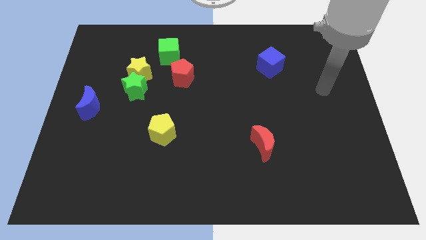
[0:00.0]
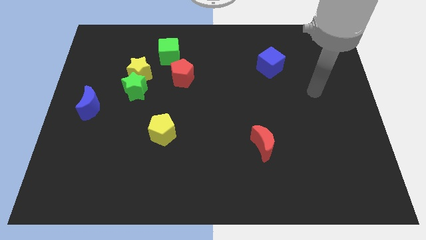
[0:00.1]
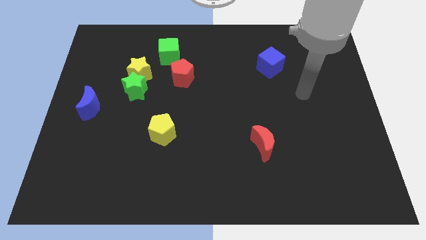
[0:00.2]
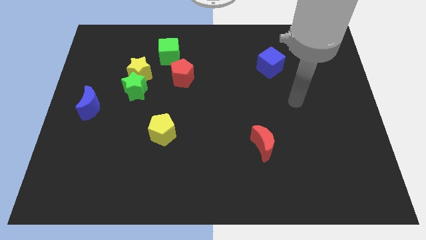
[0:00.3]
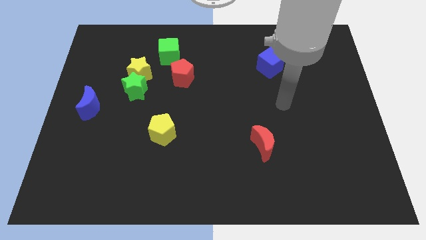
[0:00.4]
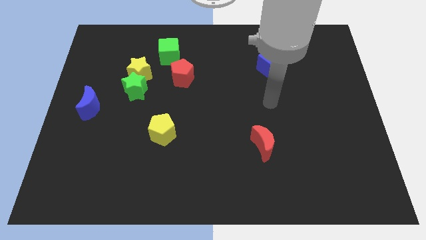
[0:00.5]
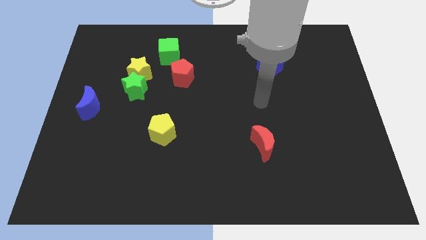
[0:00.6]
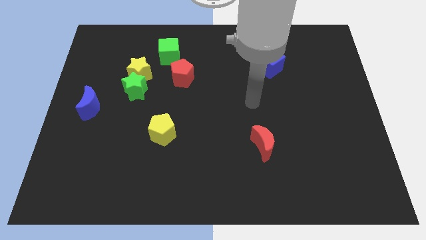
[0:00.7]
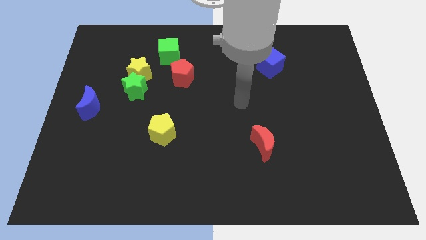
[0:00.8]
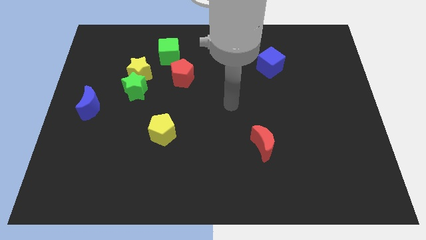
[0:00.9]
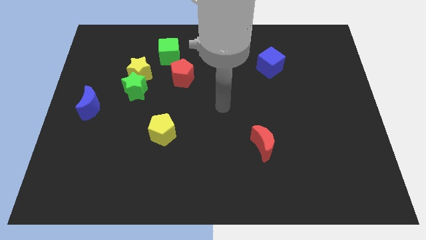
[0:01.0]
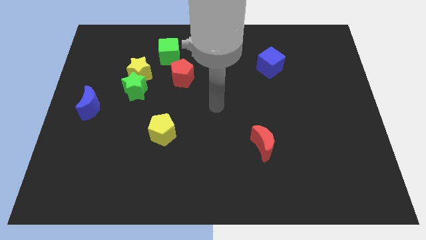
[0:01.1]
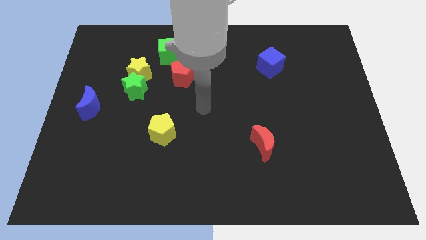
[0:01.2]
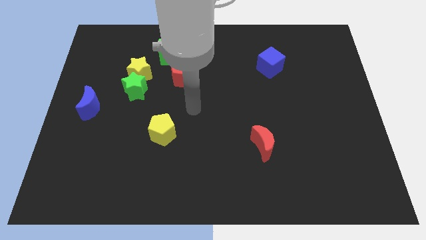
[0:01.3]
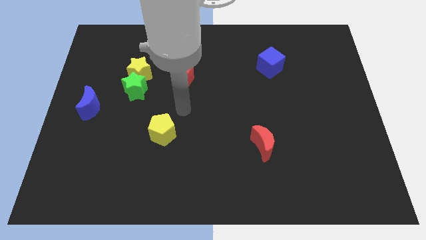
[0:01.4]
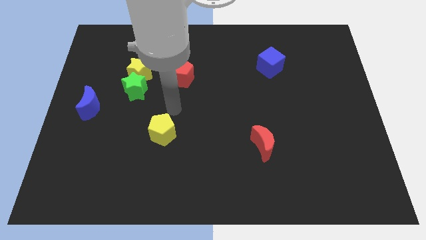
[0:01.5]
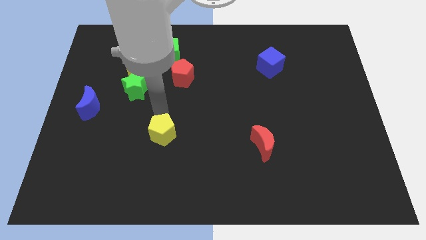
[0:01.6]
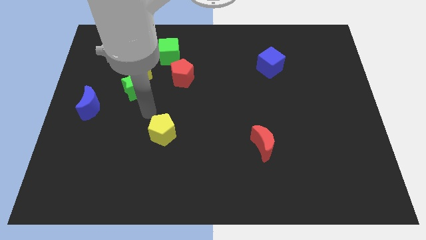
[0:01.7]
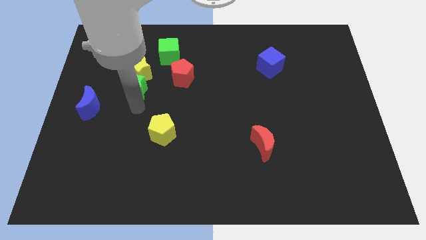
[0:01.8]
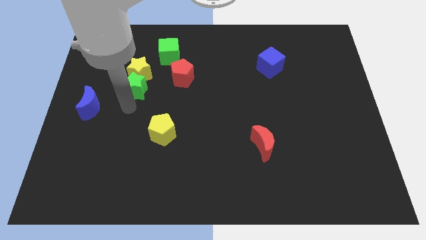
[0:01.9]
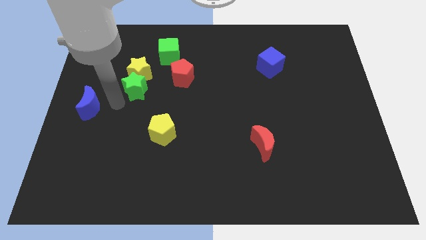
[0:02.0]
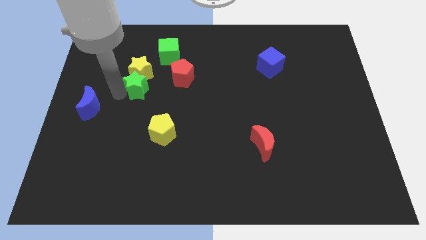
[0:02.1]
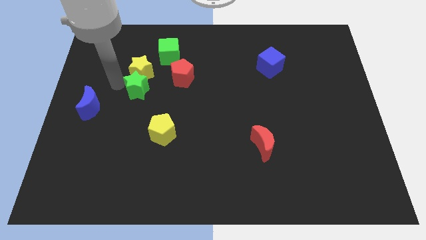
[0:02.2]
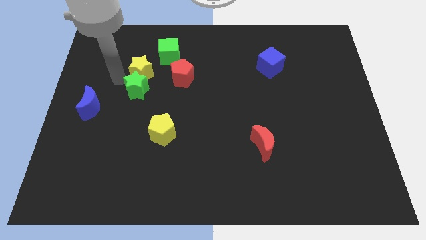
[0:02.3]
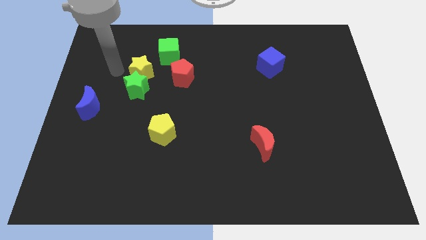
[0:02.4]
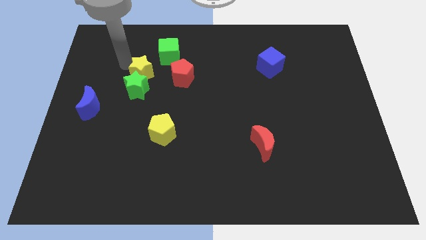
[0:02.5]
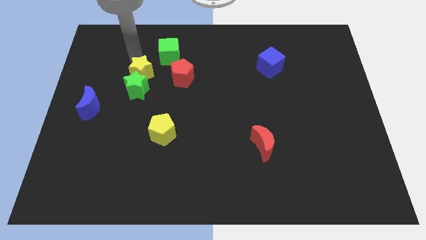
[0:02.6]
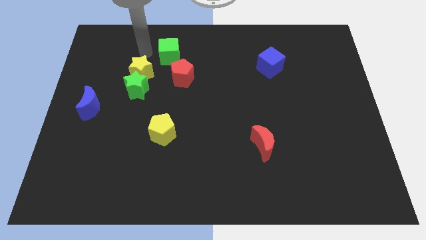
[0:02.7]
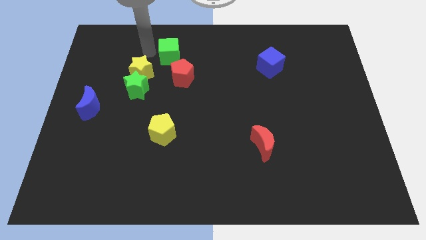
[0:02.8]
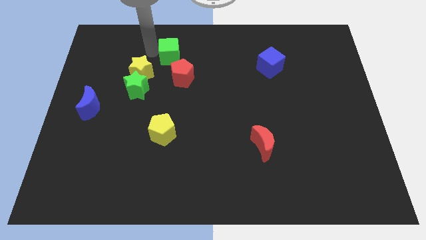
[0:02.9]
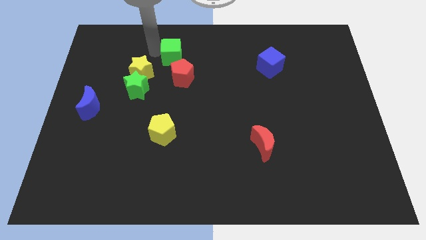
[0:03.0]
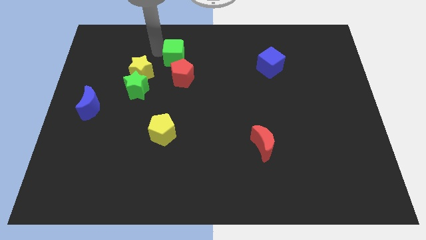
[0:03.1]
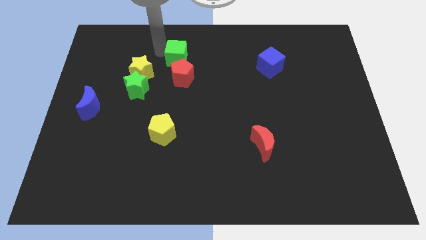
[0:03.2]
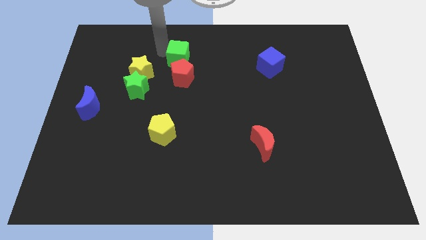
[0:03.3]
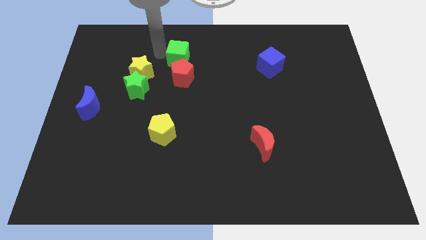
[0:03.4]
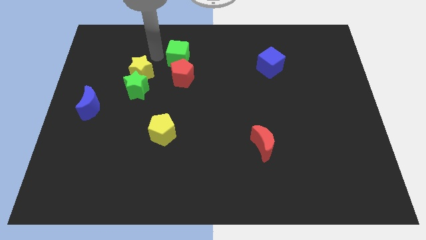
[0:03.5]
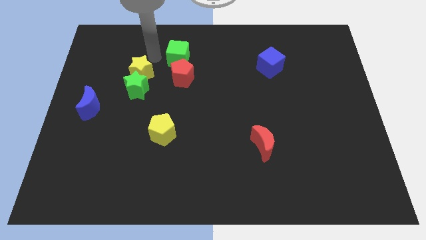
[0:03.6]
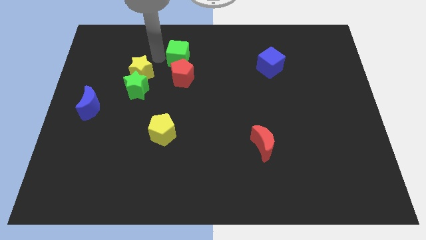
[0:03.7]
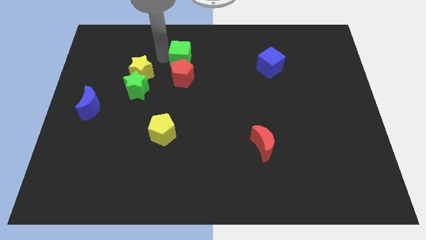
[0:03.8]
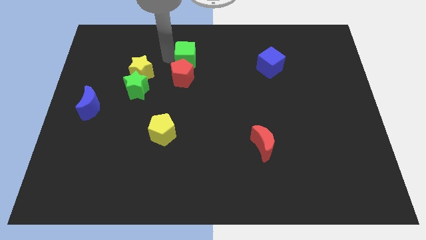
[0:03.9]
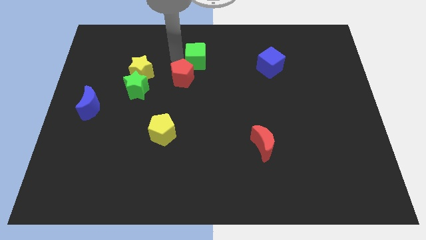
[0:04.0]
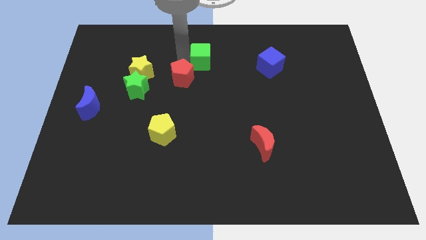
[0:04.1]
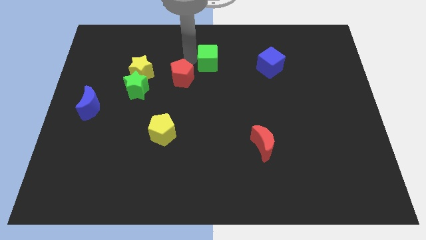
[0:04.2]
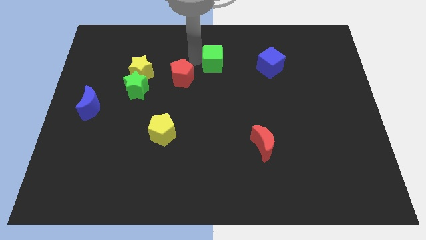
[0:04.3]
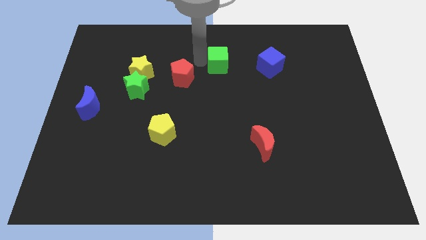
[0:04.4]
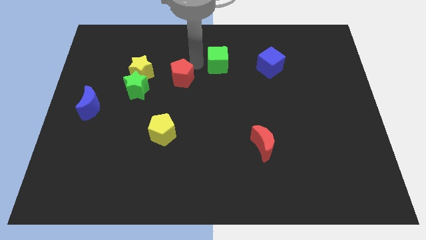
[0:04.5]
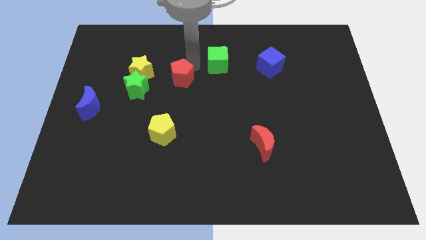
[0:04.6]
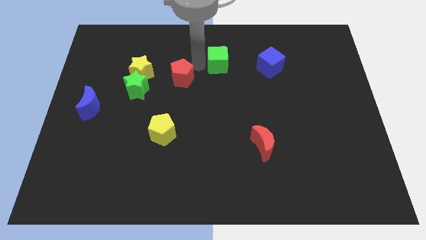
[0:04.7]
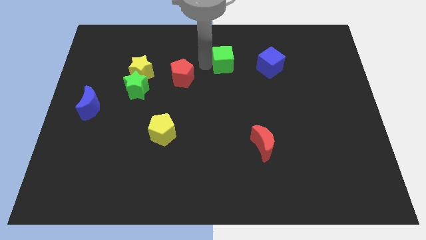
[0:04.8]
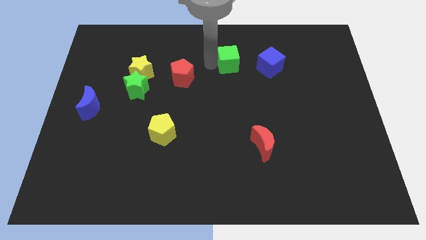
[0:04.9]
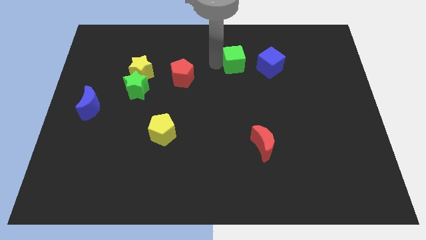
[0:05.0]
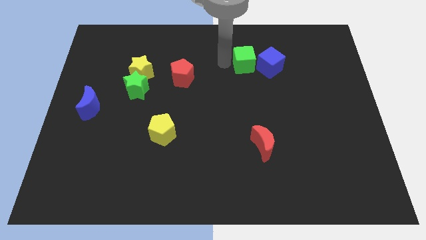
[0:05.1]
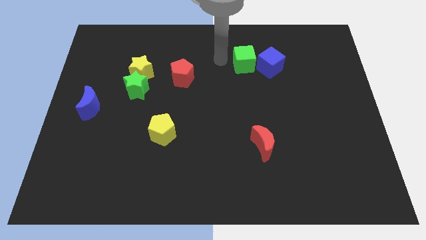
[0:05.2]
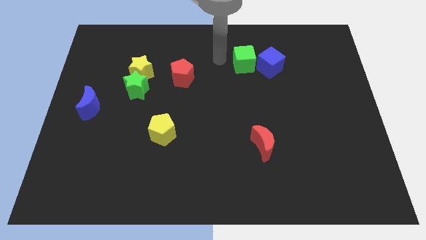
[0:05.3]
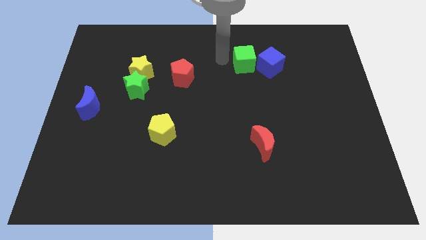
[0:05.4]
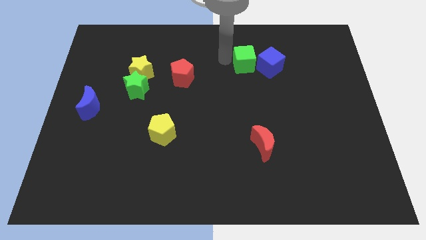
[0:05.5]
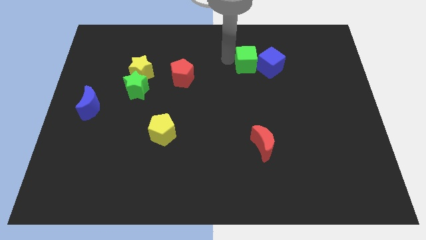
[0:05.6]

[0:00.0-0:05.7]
move the green cube next to the blue cube

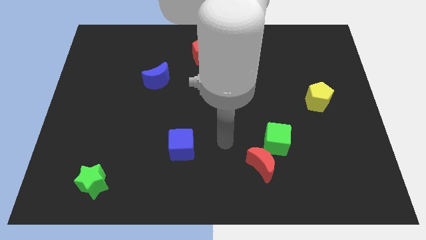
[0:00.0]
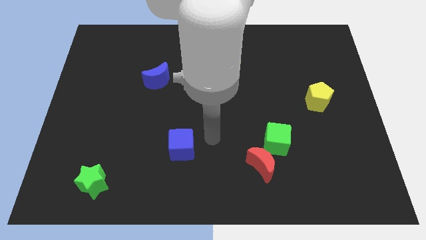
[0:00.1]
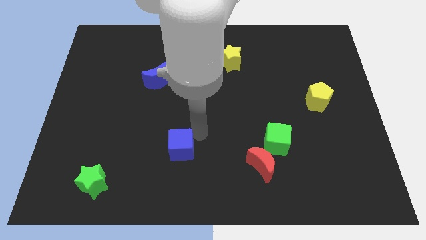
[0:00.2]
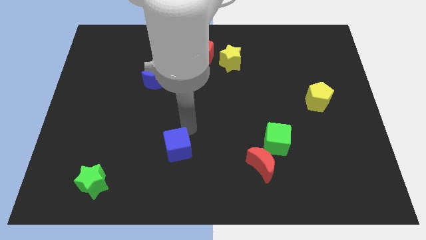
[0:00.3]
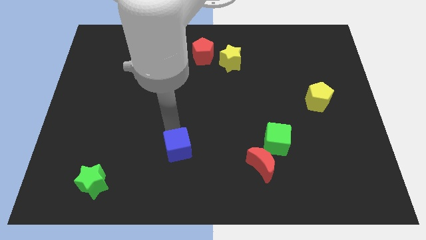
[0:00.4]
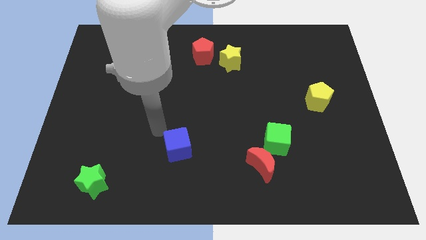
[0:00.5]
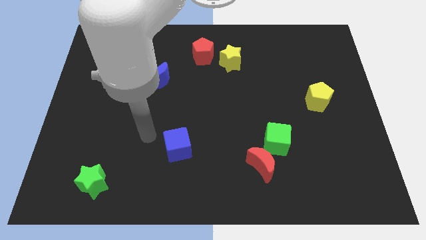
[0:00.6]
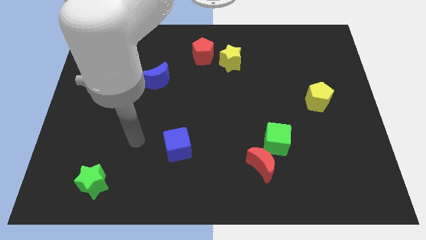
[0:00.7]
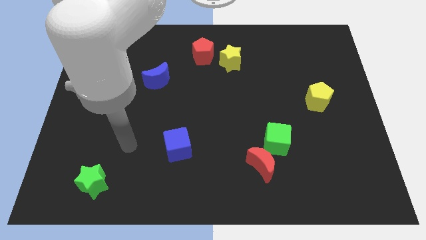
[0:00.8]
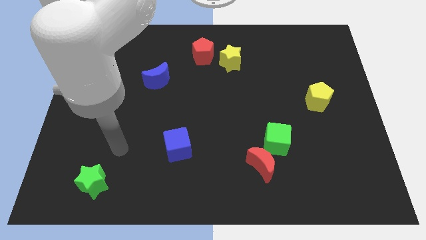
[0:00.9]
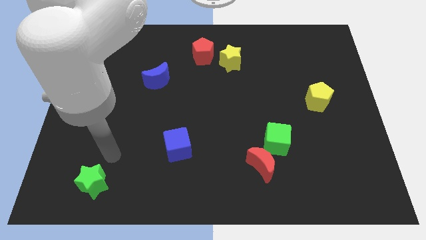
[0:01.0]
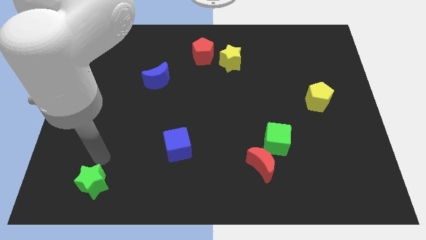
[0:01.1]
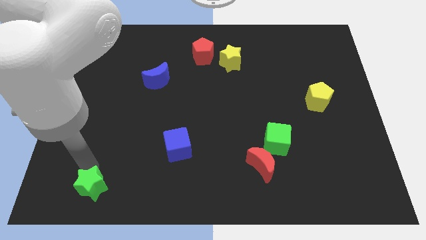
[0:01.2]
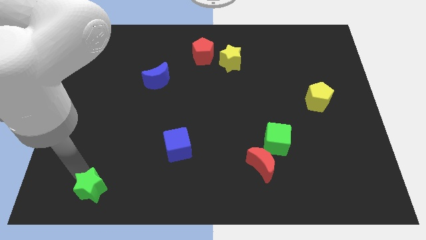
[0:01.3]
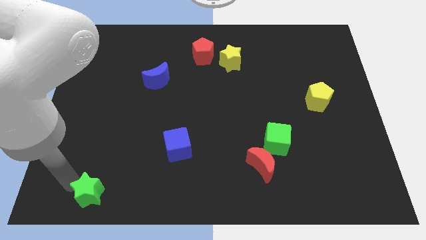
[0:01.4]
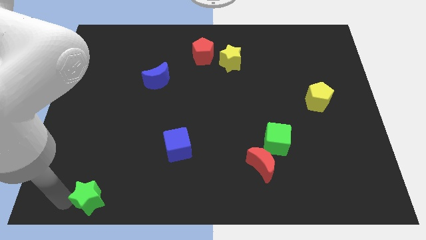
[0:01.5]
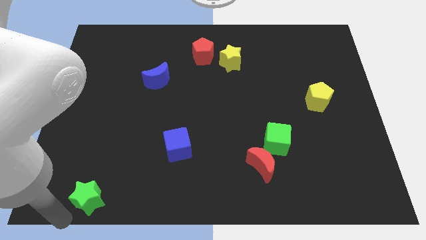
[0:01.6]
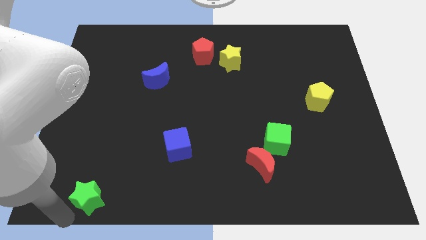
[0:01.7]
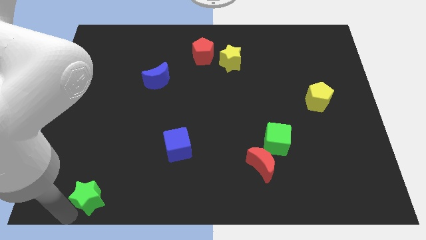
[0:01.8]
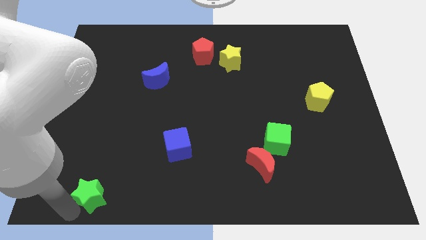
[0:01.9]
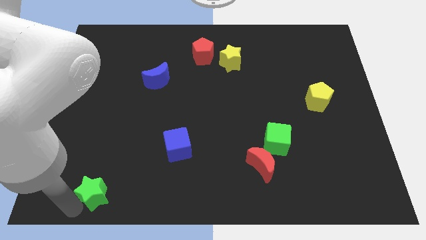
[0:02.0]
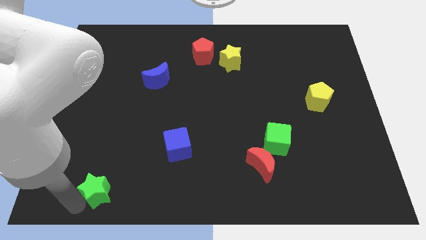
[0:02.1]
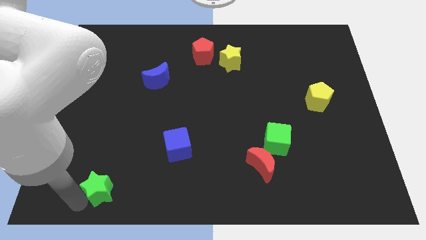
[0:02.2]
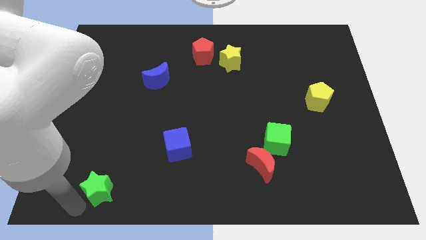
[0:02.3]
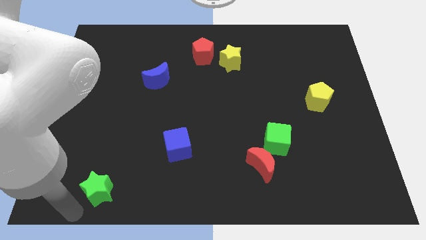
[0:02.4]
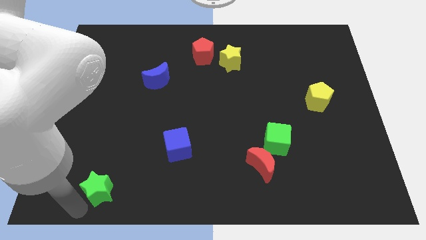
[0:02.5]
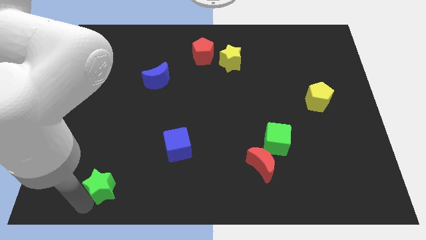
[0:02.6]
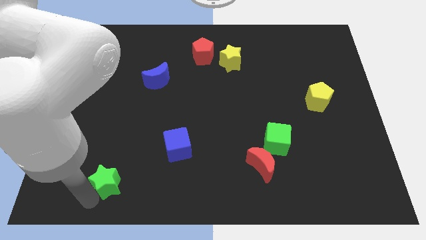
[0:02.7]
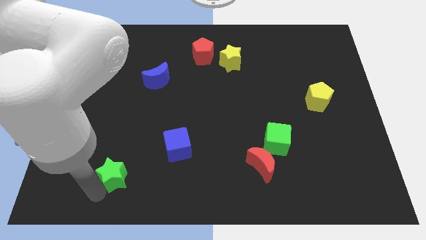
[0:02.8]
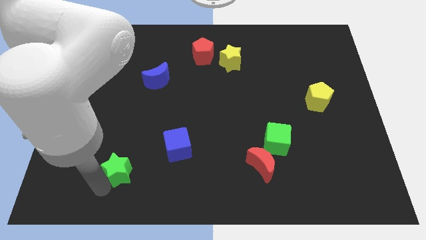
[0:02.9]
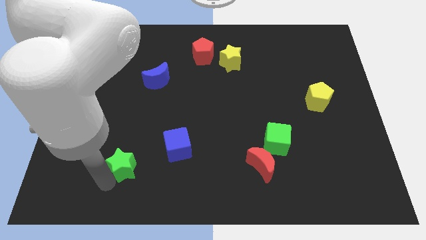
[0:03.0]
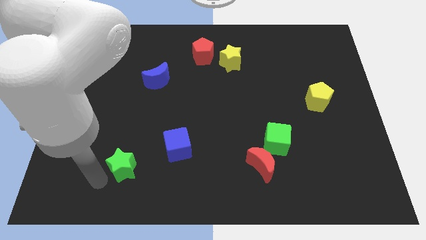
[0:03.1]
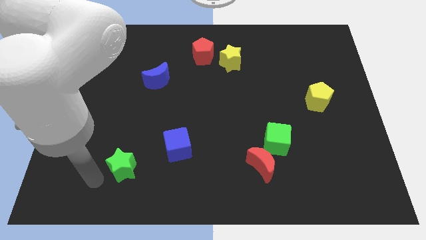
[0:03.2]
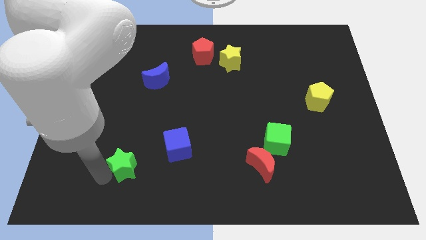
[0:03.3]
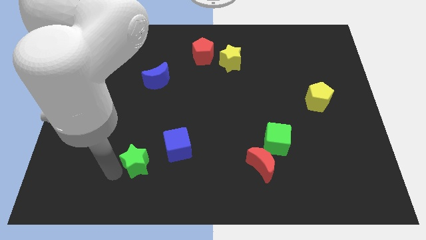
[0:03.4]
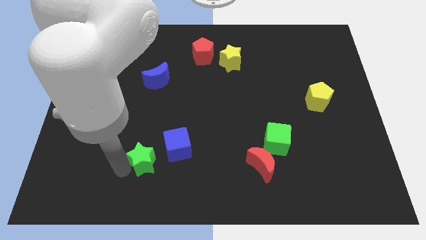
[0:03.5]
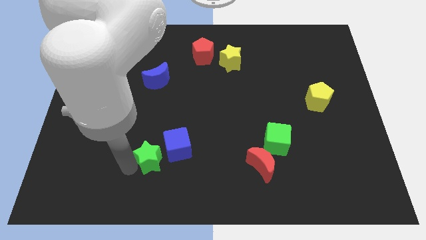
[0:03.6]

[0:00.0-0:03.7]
slide the green star towards the blue cube
